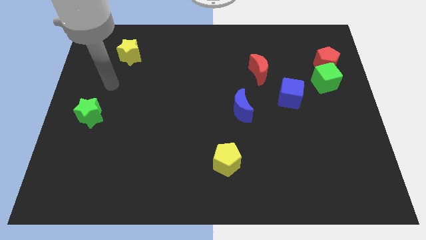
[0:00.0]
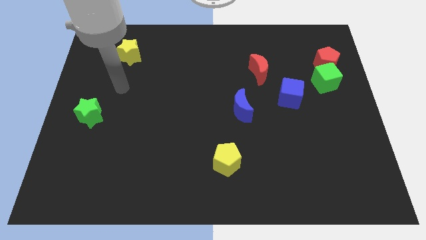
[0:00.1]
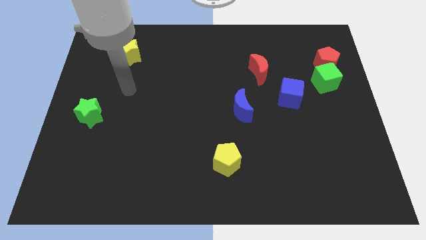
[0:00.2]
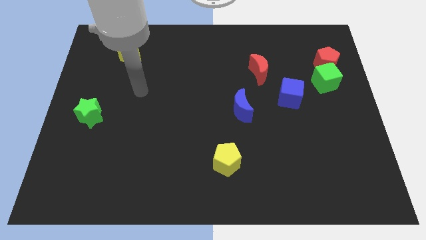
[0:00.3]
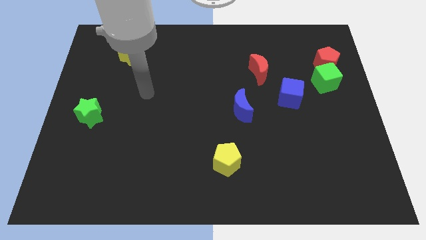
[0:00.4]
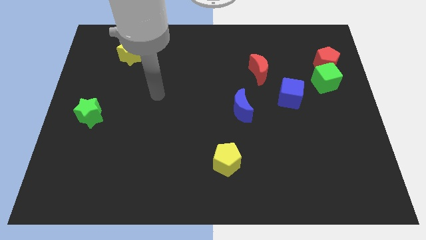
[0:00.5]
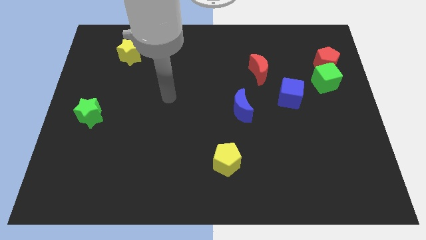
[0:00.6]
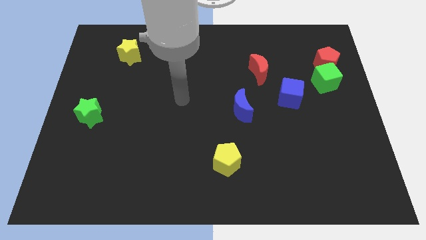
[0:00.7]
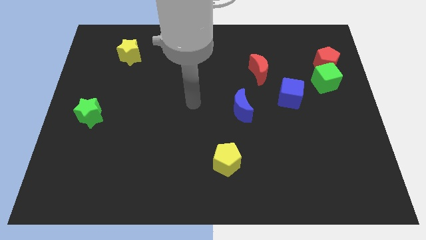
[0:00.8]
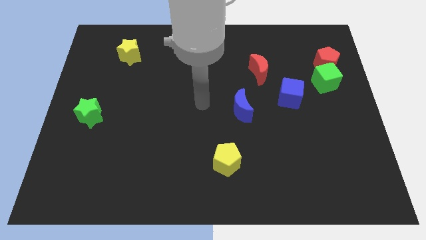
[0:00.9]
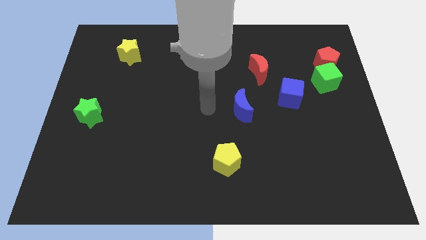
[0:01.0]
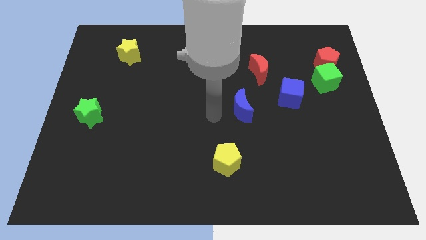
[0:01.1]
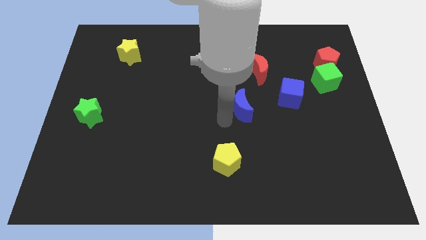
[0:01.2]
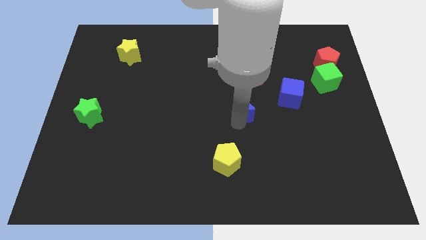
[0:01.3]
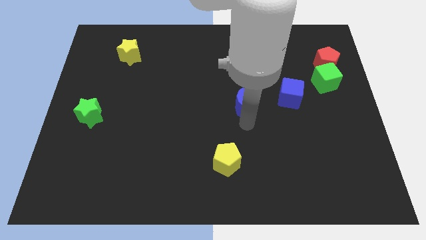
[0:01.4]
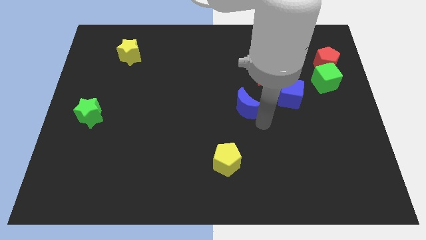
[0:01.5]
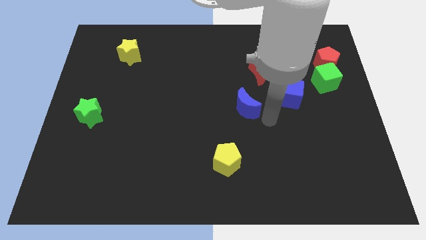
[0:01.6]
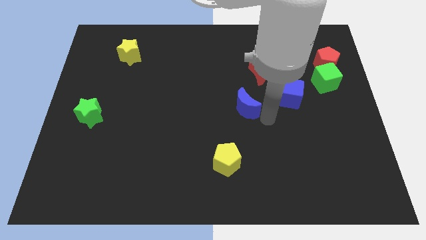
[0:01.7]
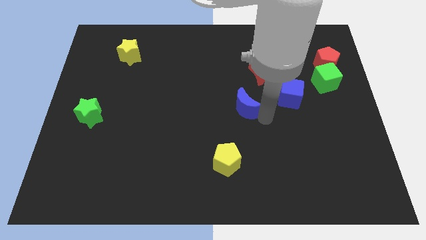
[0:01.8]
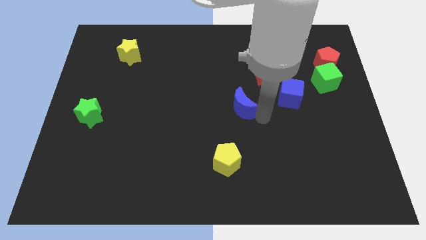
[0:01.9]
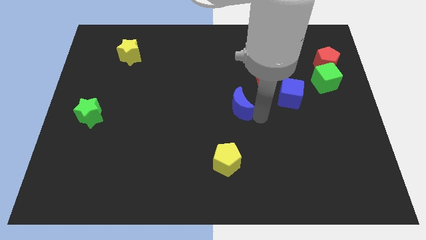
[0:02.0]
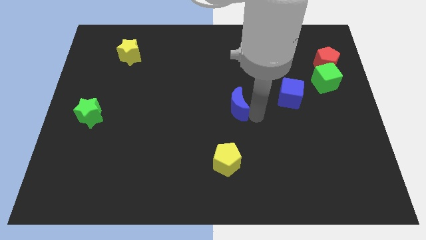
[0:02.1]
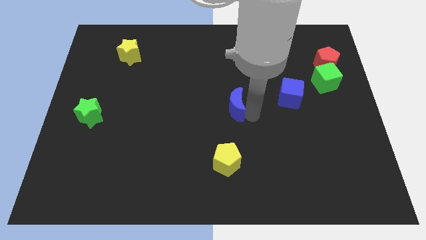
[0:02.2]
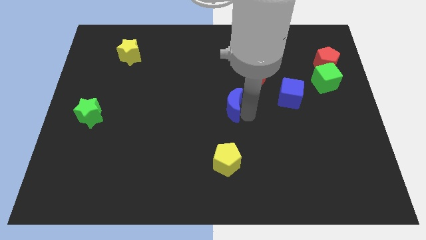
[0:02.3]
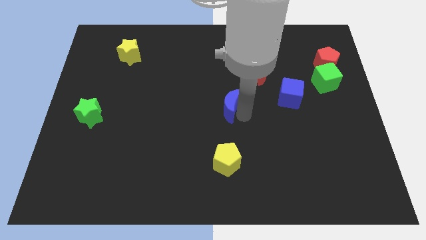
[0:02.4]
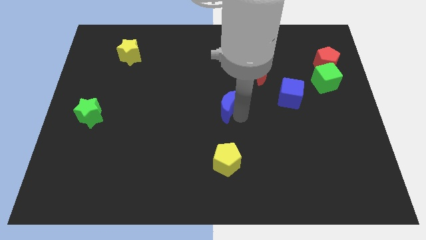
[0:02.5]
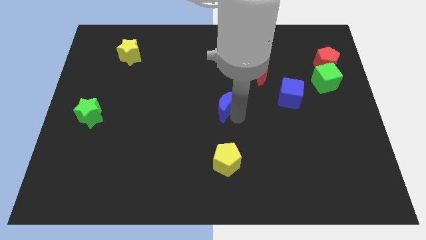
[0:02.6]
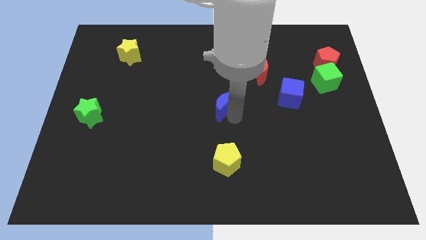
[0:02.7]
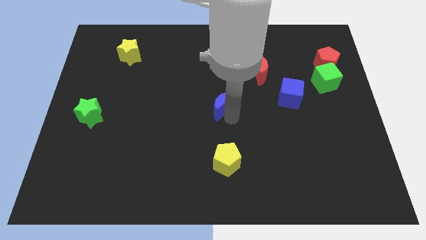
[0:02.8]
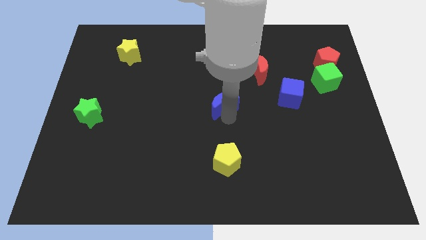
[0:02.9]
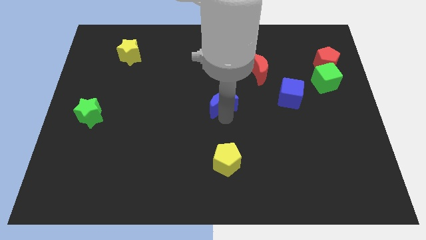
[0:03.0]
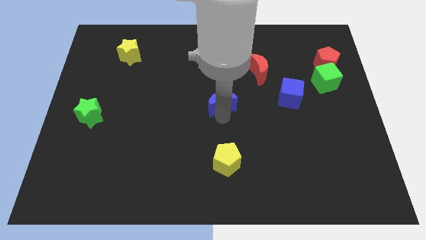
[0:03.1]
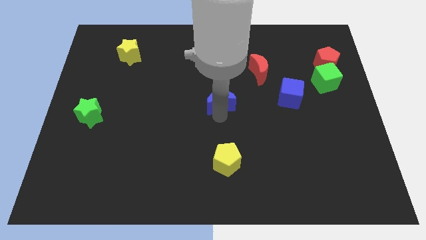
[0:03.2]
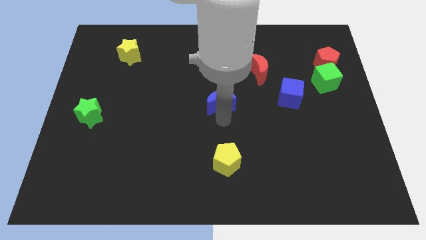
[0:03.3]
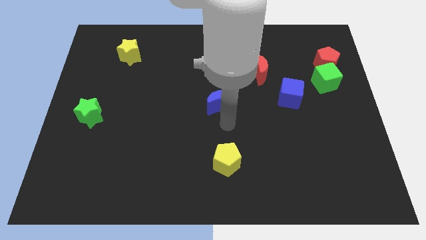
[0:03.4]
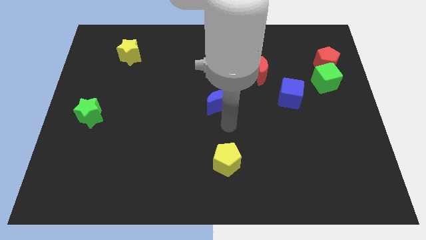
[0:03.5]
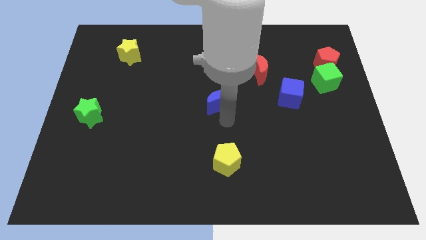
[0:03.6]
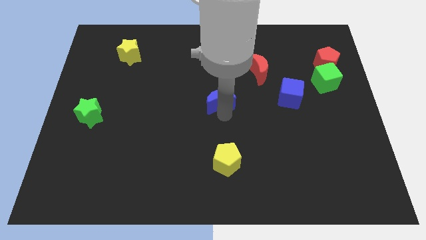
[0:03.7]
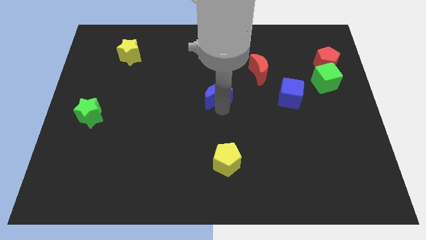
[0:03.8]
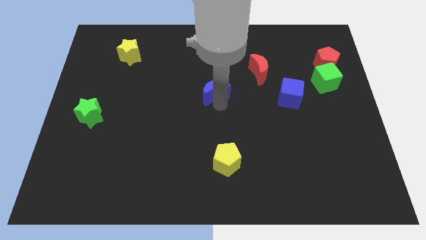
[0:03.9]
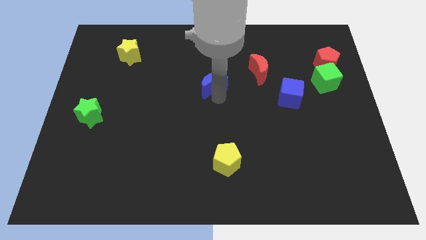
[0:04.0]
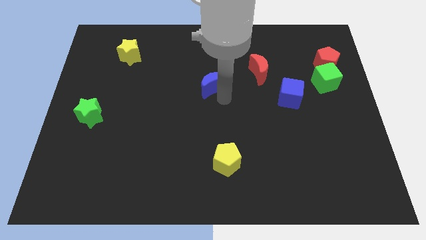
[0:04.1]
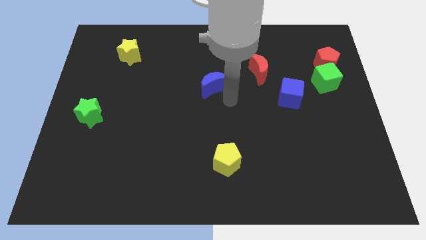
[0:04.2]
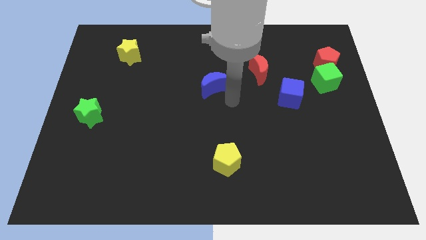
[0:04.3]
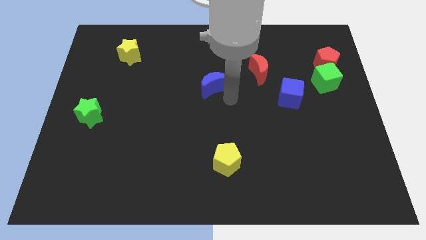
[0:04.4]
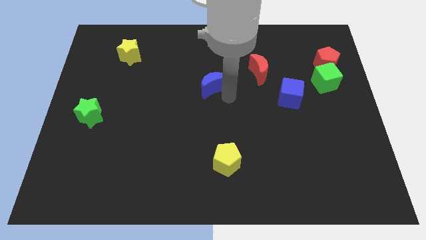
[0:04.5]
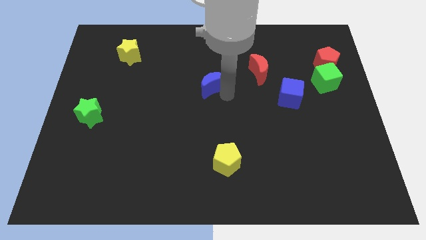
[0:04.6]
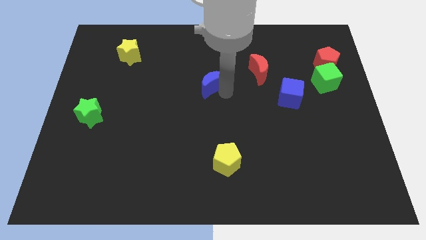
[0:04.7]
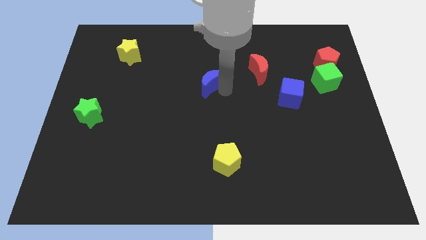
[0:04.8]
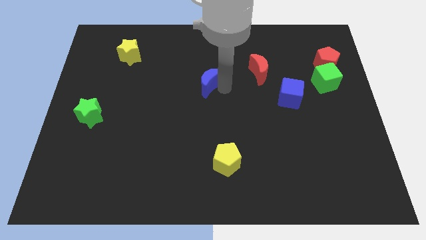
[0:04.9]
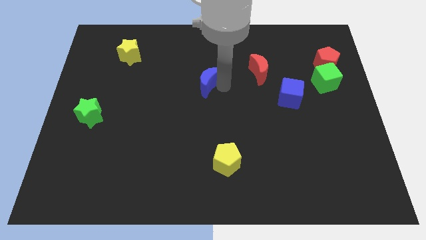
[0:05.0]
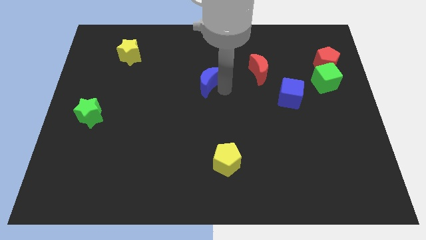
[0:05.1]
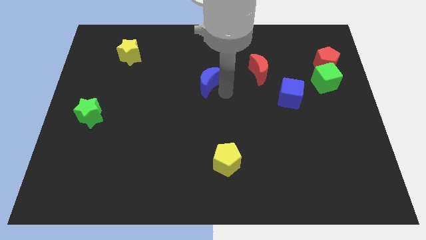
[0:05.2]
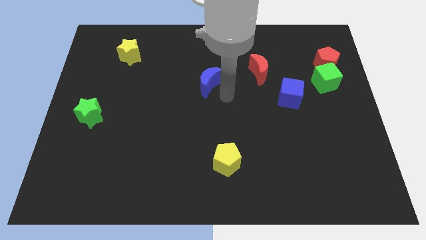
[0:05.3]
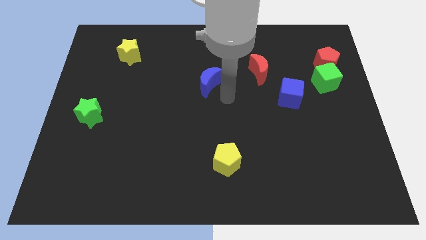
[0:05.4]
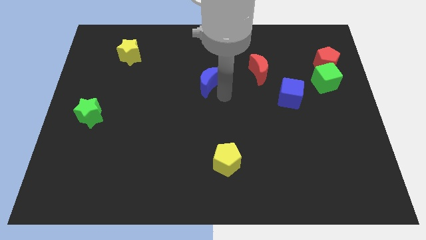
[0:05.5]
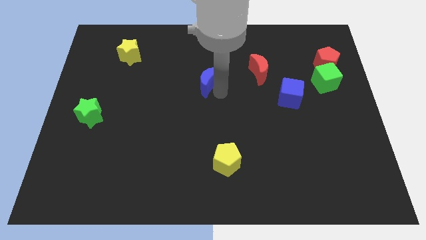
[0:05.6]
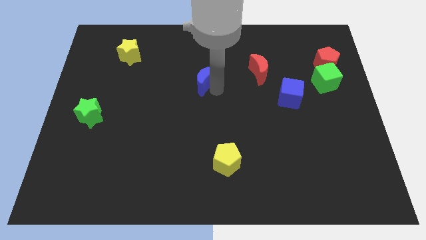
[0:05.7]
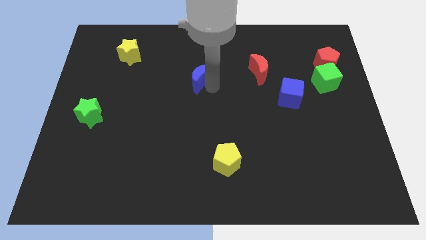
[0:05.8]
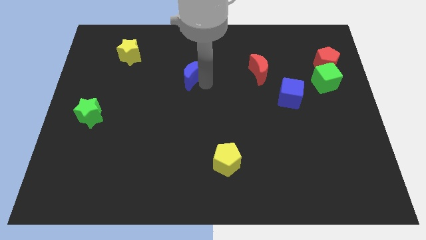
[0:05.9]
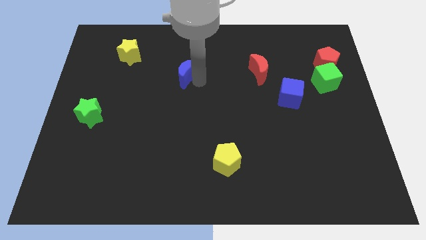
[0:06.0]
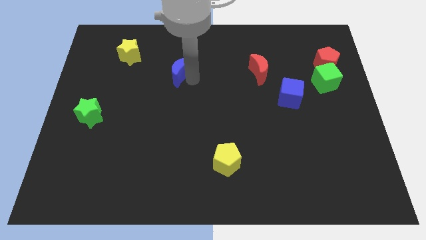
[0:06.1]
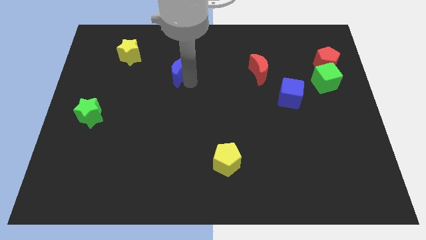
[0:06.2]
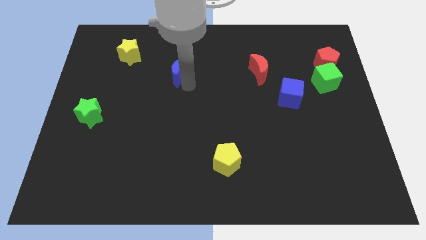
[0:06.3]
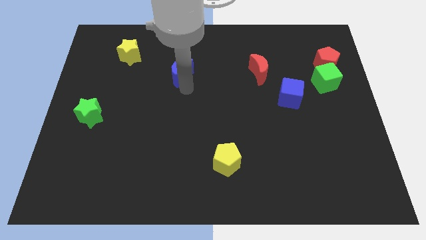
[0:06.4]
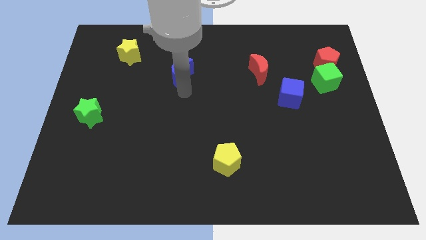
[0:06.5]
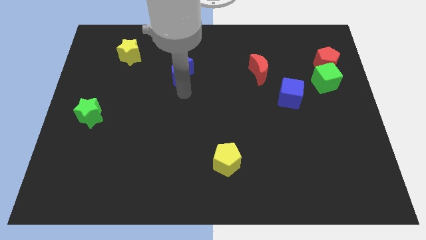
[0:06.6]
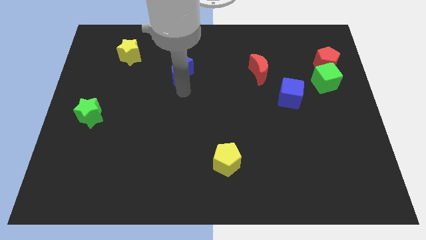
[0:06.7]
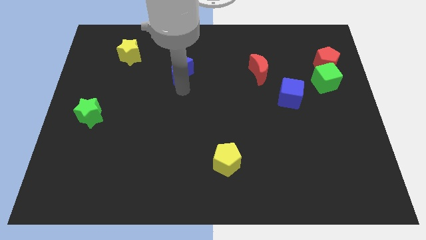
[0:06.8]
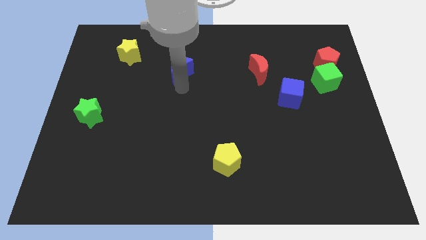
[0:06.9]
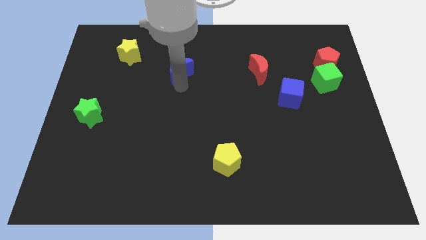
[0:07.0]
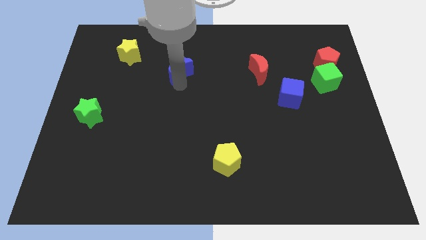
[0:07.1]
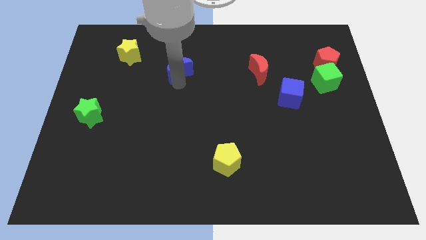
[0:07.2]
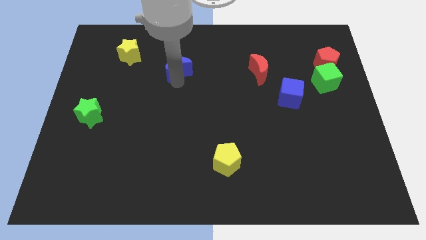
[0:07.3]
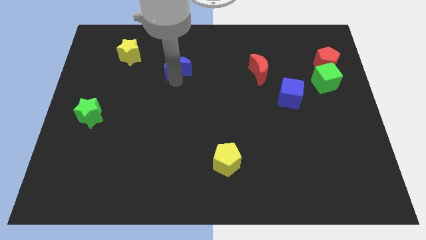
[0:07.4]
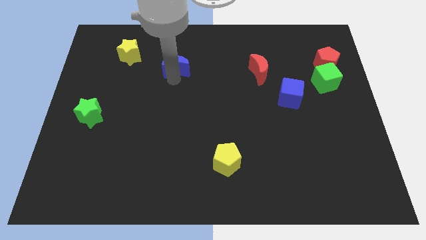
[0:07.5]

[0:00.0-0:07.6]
slide the blue moon to the right side of the yellow star
